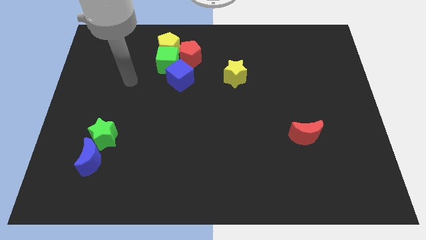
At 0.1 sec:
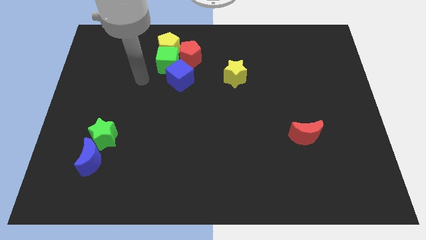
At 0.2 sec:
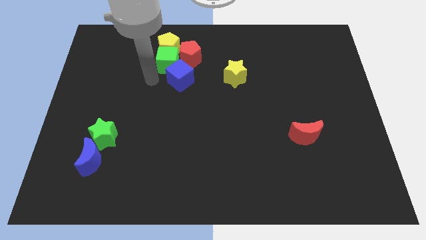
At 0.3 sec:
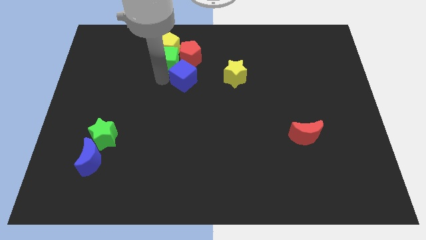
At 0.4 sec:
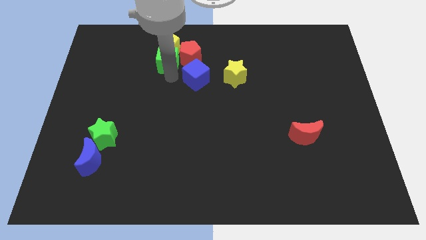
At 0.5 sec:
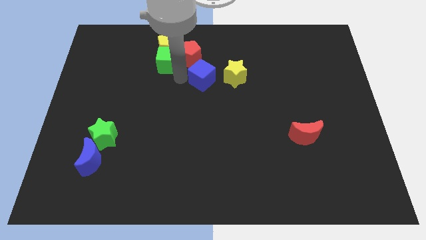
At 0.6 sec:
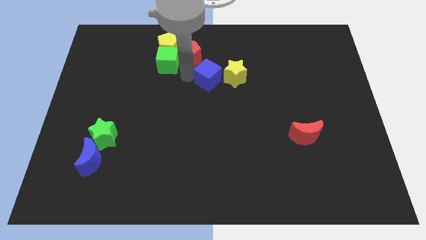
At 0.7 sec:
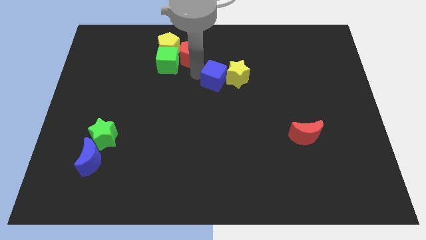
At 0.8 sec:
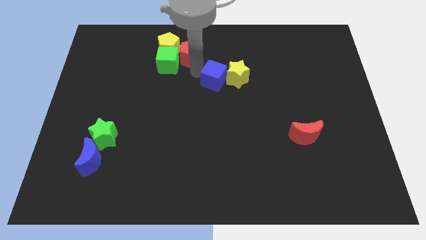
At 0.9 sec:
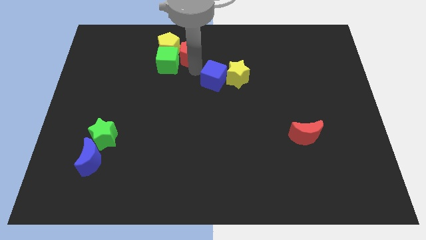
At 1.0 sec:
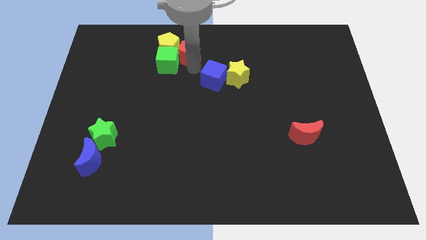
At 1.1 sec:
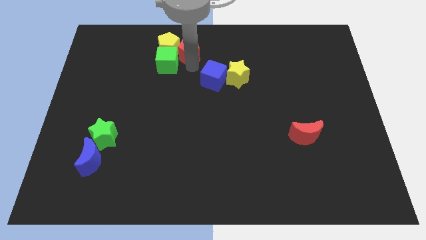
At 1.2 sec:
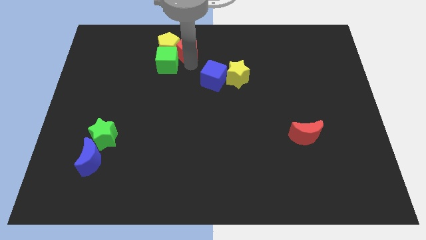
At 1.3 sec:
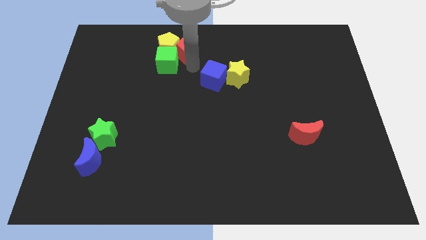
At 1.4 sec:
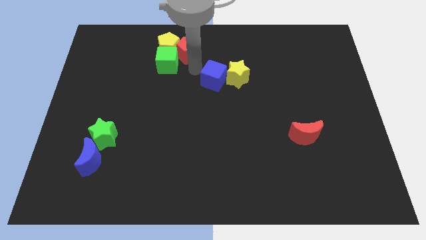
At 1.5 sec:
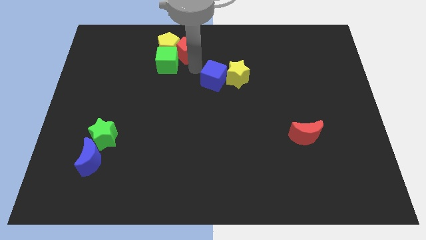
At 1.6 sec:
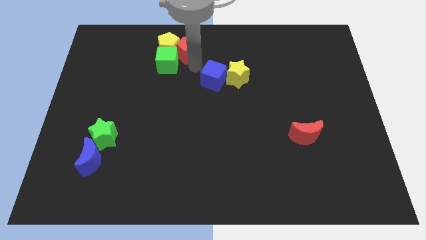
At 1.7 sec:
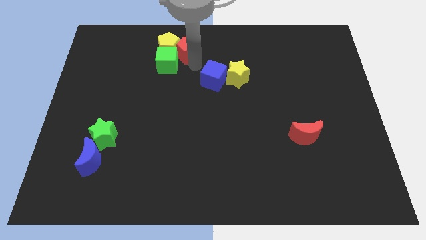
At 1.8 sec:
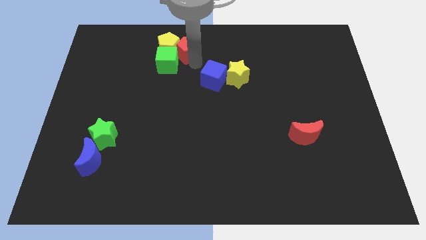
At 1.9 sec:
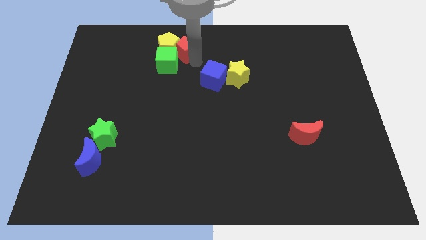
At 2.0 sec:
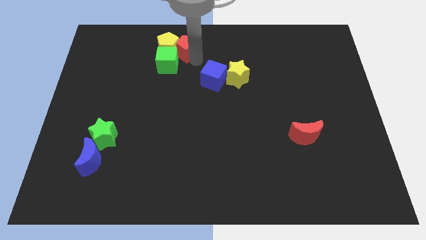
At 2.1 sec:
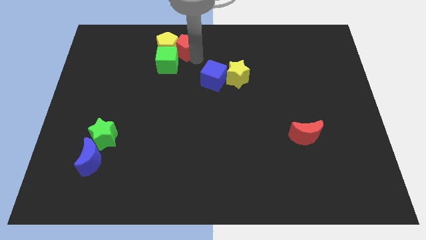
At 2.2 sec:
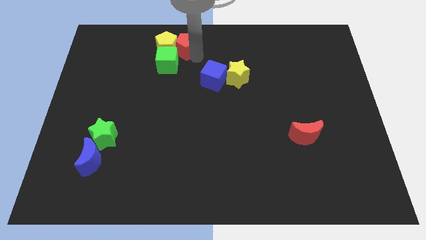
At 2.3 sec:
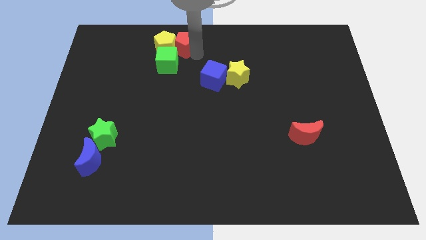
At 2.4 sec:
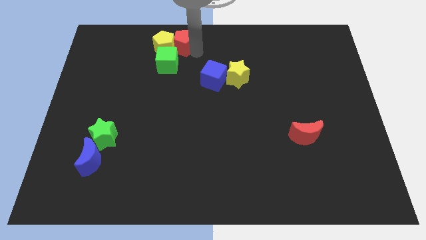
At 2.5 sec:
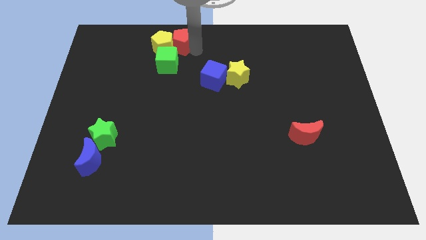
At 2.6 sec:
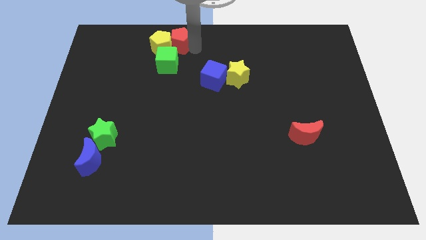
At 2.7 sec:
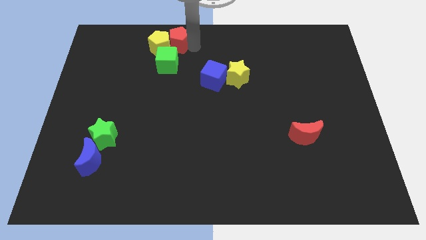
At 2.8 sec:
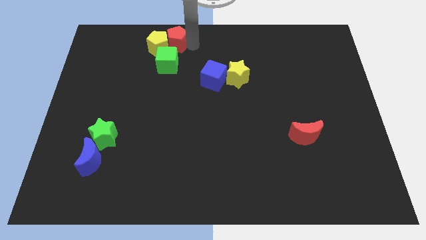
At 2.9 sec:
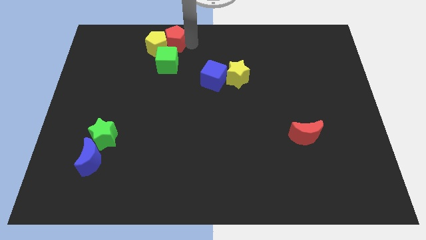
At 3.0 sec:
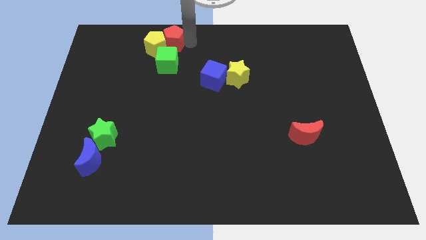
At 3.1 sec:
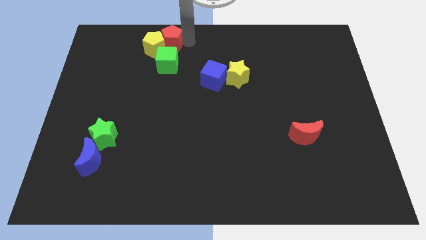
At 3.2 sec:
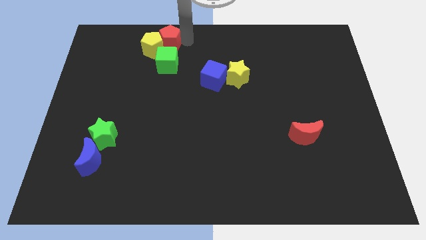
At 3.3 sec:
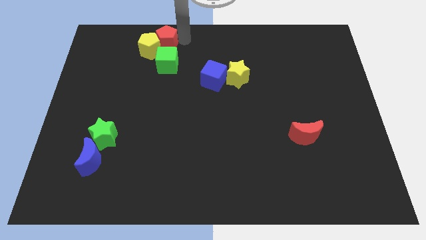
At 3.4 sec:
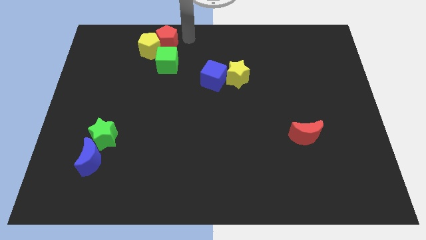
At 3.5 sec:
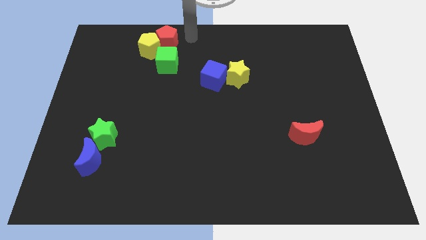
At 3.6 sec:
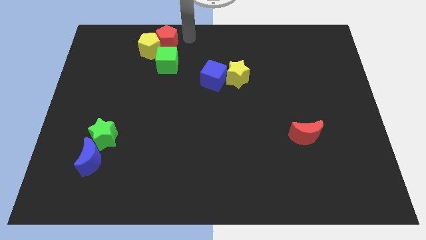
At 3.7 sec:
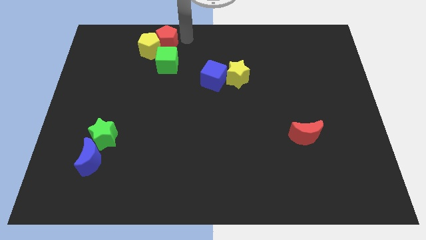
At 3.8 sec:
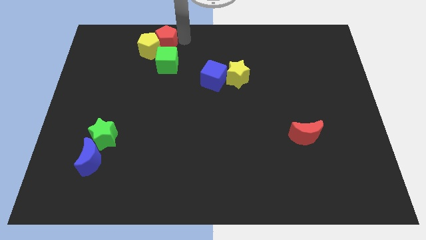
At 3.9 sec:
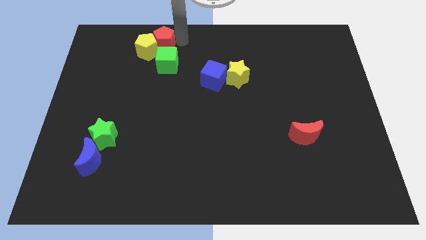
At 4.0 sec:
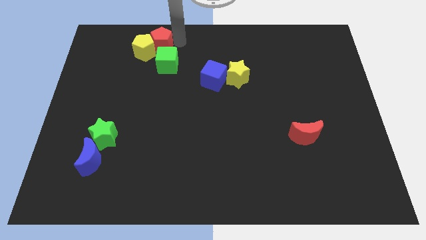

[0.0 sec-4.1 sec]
move the red pentagon to the left slightly

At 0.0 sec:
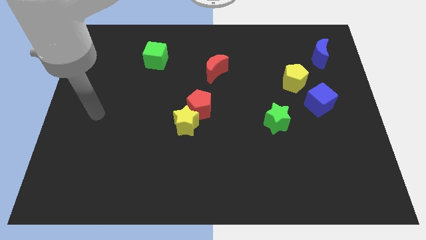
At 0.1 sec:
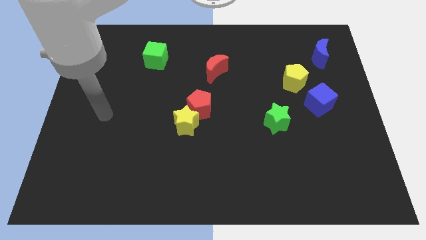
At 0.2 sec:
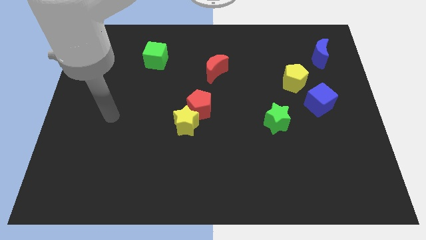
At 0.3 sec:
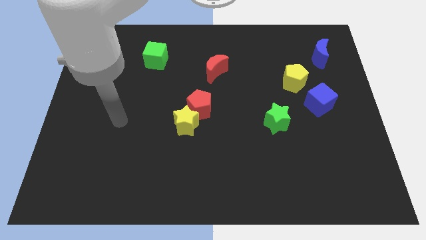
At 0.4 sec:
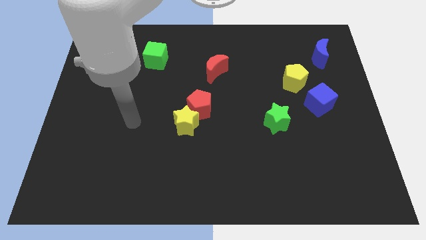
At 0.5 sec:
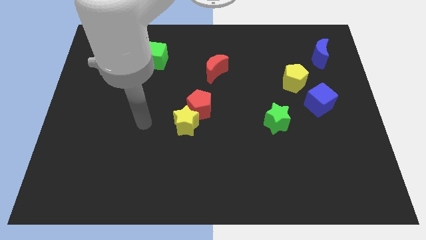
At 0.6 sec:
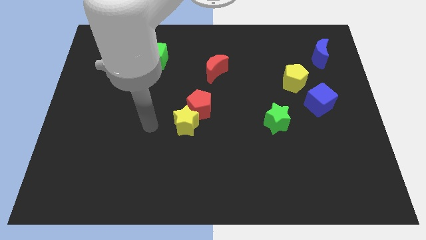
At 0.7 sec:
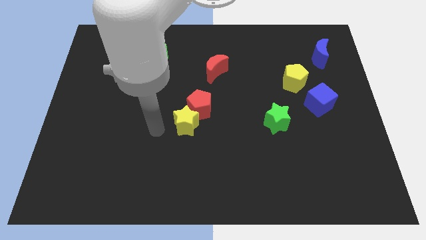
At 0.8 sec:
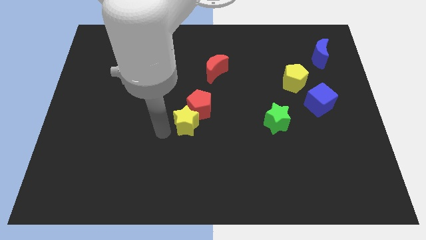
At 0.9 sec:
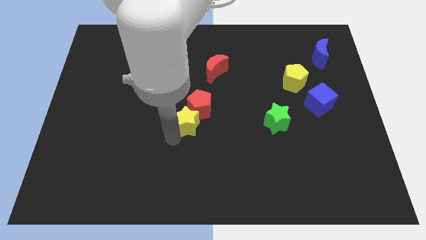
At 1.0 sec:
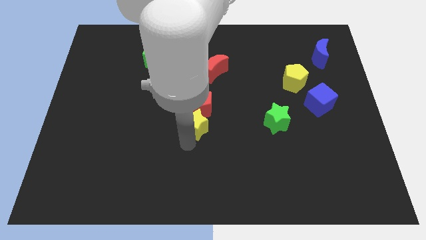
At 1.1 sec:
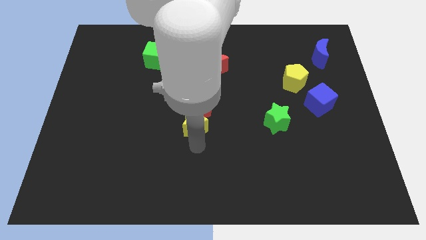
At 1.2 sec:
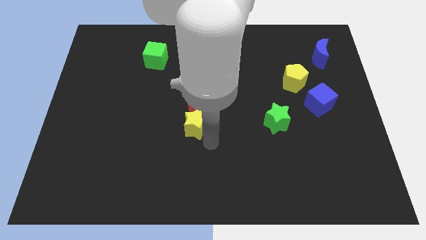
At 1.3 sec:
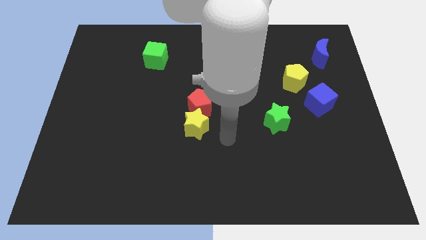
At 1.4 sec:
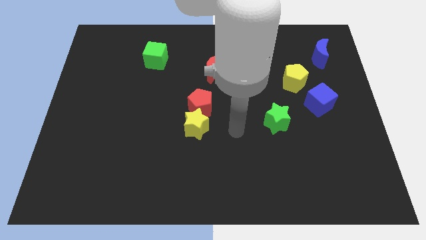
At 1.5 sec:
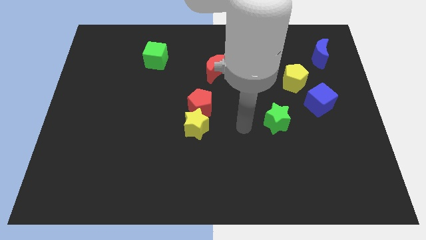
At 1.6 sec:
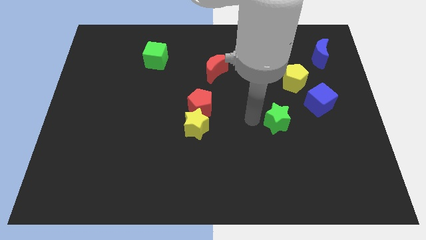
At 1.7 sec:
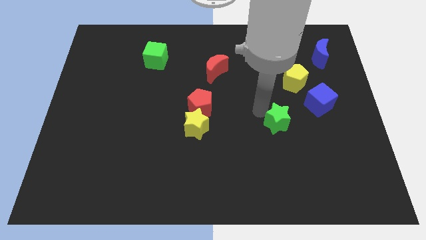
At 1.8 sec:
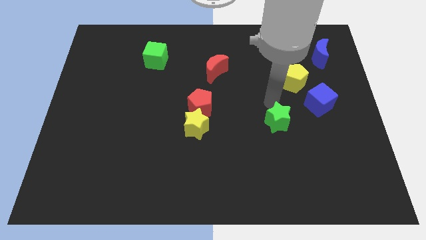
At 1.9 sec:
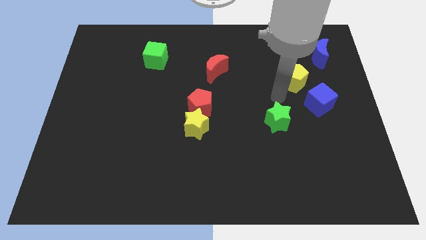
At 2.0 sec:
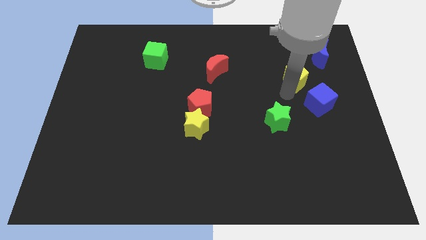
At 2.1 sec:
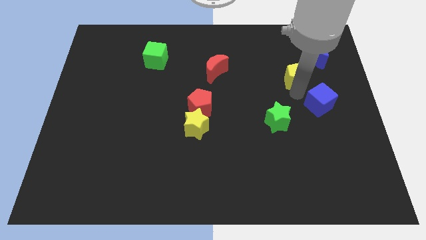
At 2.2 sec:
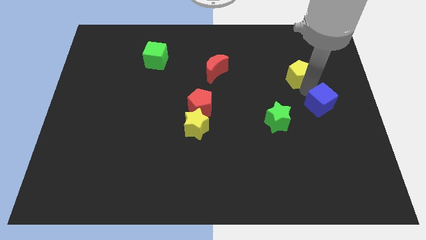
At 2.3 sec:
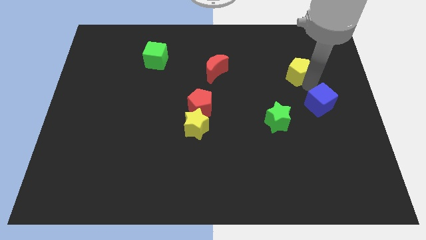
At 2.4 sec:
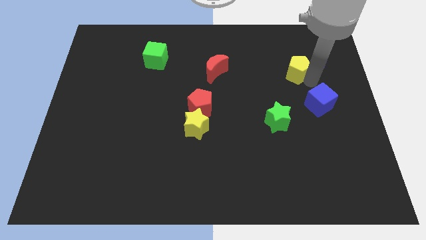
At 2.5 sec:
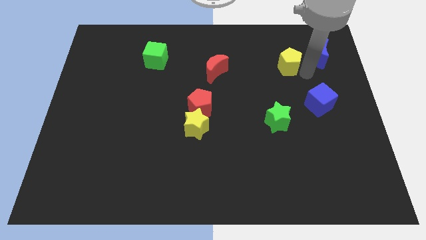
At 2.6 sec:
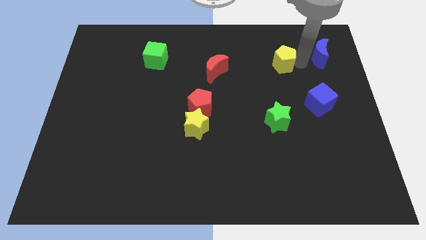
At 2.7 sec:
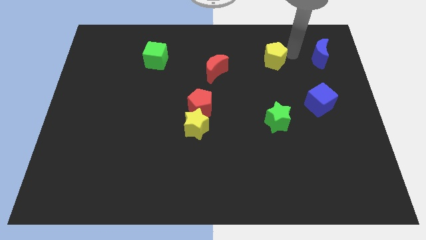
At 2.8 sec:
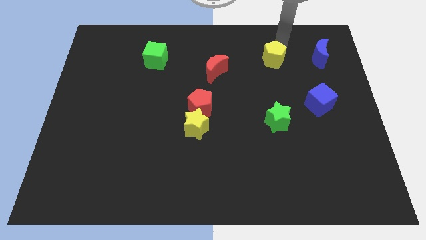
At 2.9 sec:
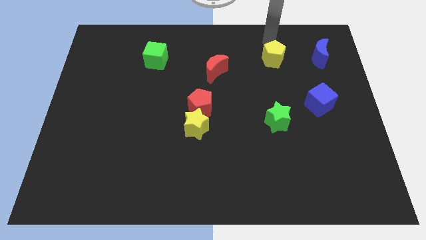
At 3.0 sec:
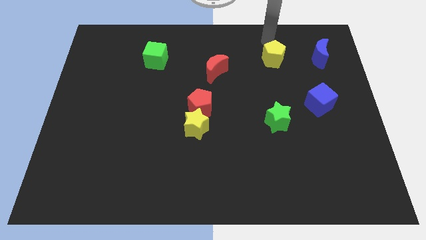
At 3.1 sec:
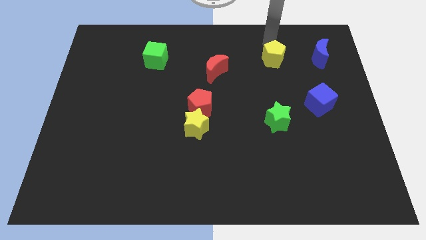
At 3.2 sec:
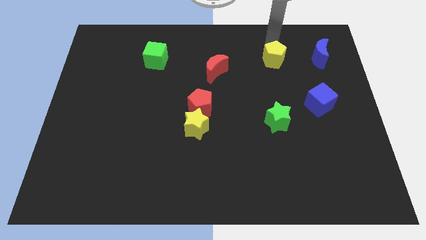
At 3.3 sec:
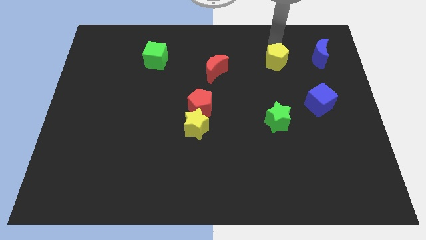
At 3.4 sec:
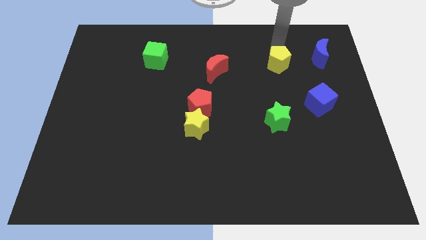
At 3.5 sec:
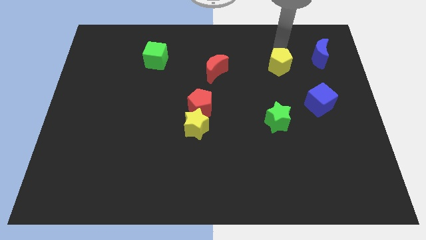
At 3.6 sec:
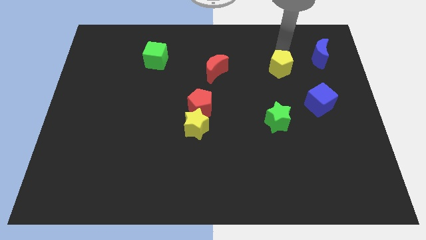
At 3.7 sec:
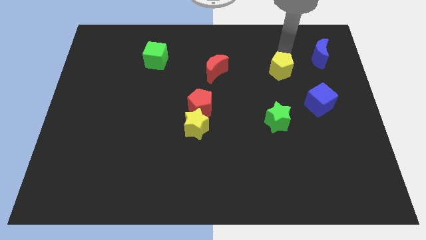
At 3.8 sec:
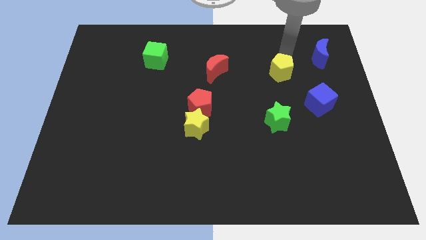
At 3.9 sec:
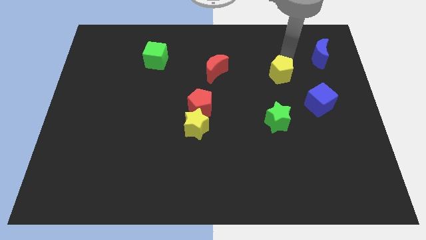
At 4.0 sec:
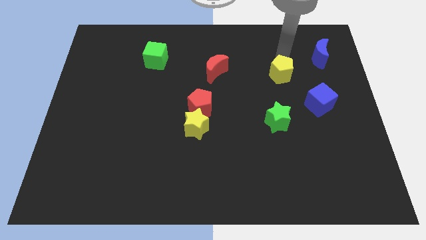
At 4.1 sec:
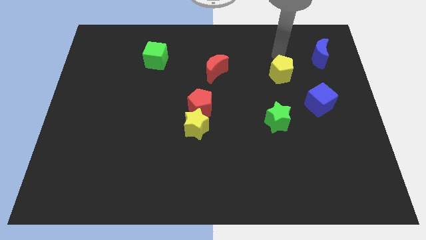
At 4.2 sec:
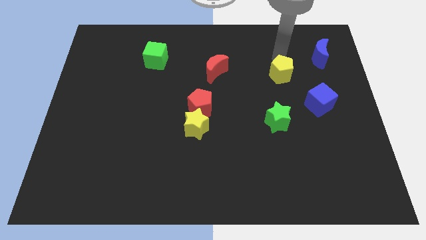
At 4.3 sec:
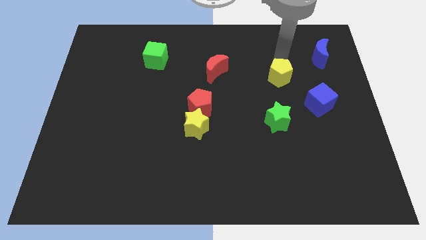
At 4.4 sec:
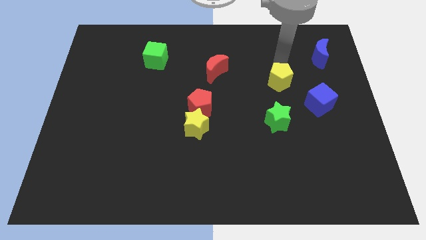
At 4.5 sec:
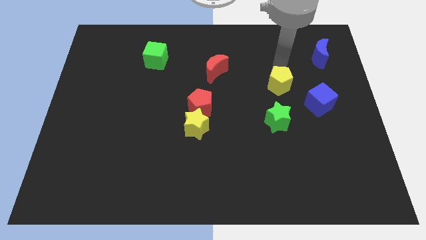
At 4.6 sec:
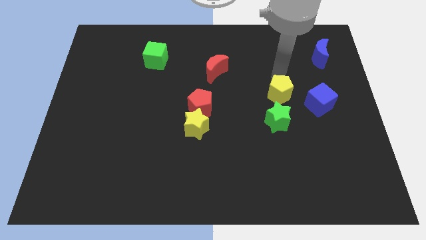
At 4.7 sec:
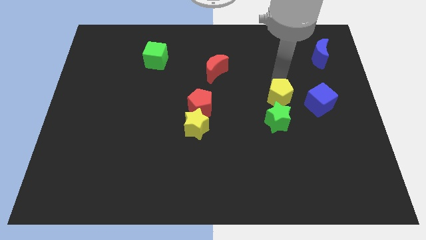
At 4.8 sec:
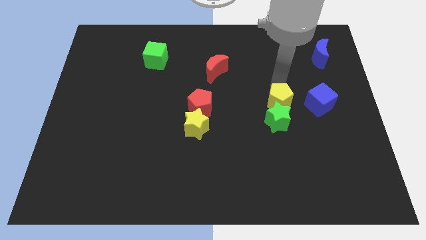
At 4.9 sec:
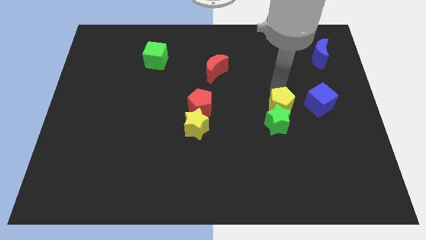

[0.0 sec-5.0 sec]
slightly move the yellow pentagon downwards
